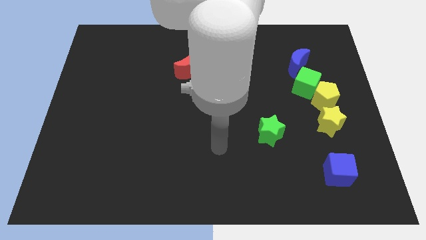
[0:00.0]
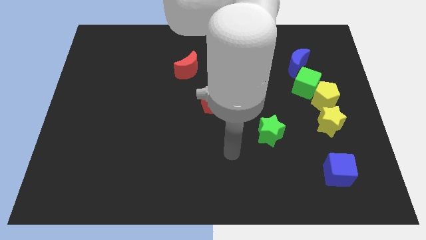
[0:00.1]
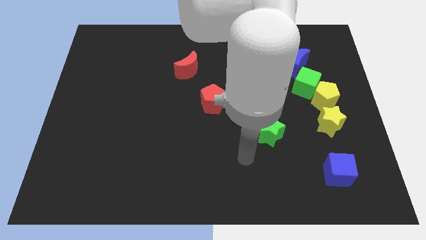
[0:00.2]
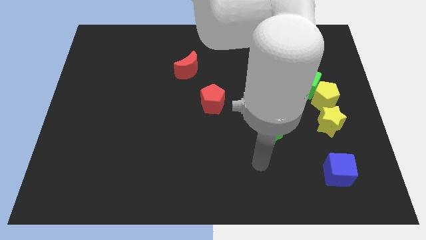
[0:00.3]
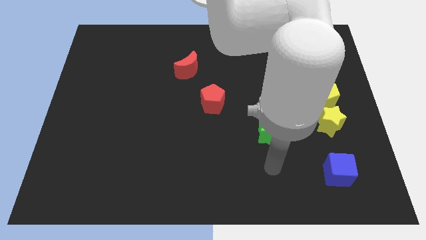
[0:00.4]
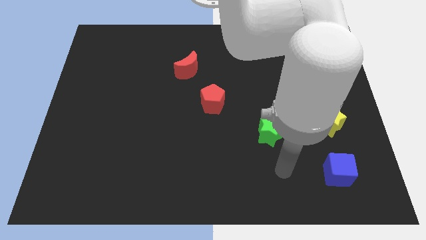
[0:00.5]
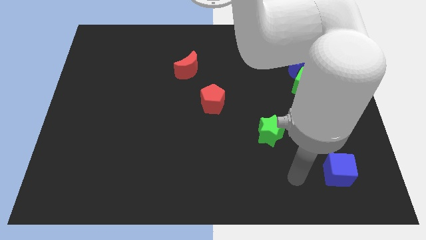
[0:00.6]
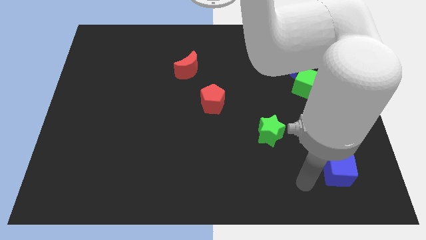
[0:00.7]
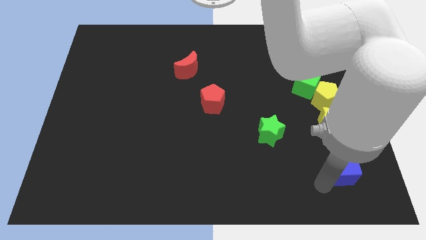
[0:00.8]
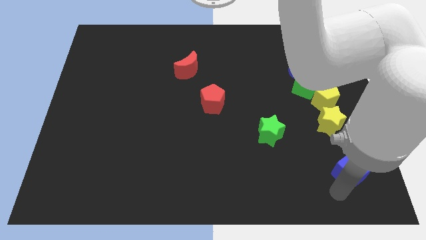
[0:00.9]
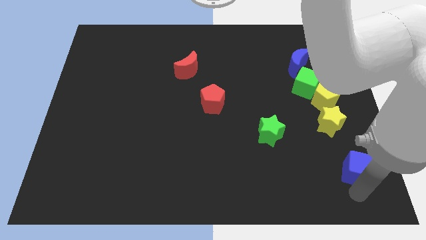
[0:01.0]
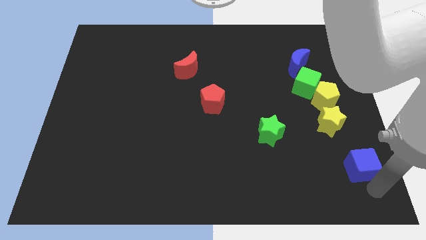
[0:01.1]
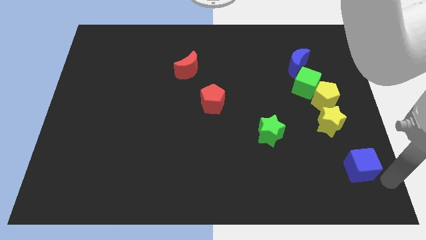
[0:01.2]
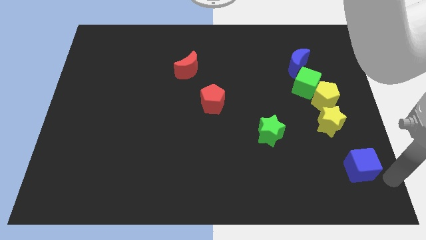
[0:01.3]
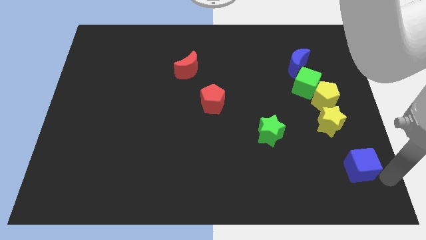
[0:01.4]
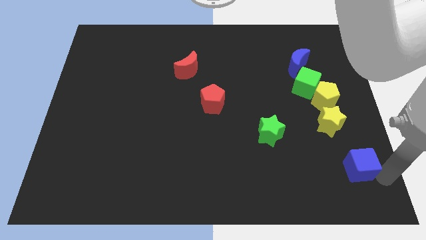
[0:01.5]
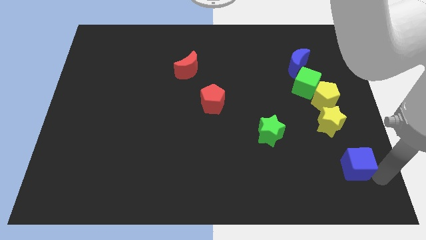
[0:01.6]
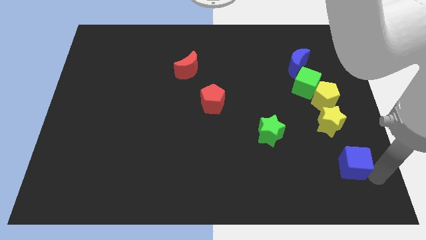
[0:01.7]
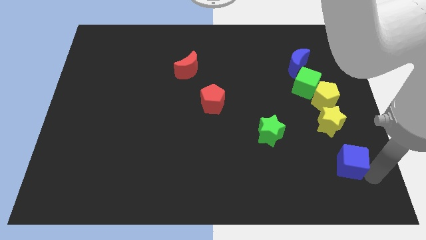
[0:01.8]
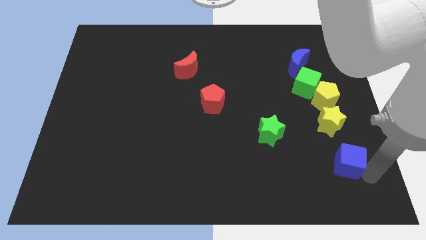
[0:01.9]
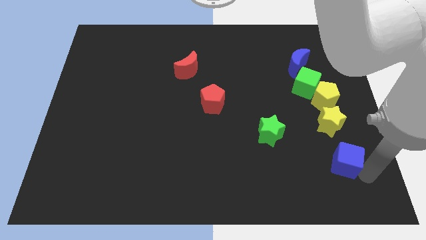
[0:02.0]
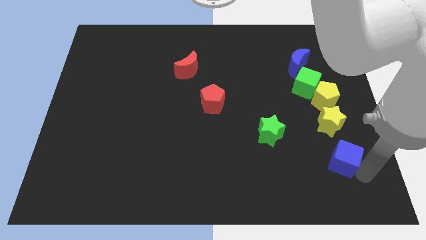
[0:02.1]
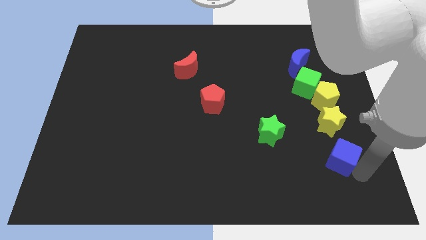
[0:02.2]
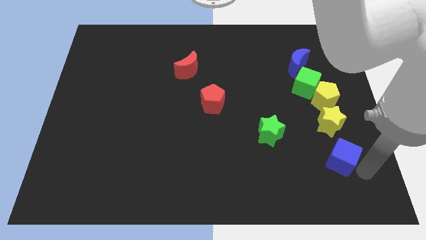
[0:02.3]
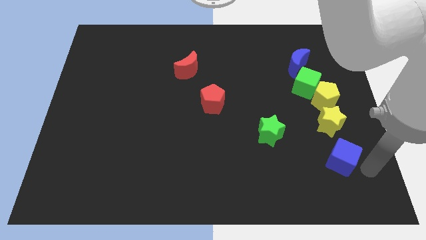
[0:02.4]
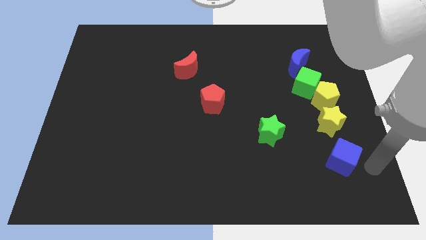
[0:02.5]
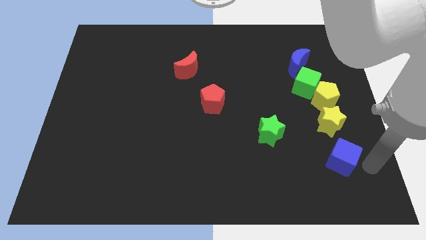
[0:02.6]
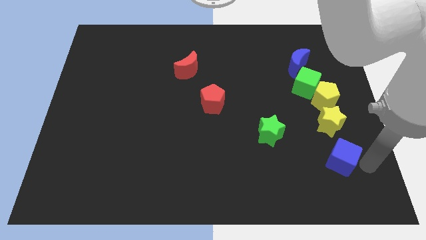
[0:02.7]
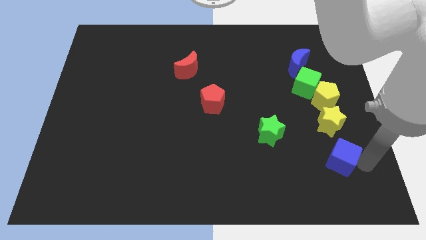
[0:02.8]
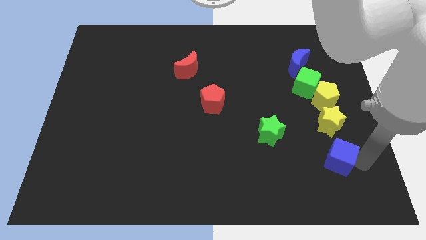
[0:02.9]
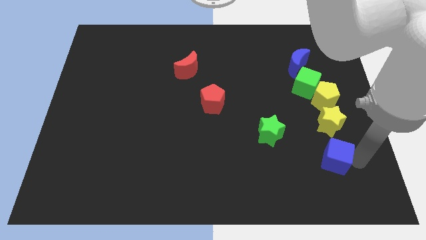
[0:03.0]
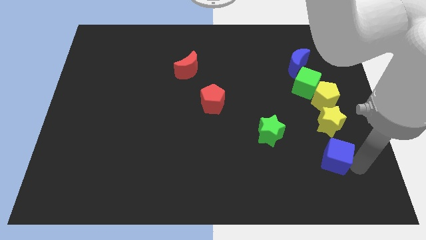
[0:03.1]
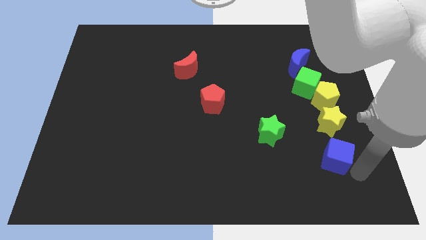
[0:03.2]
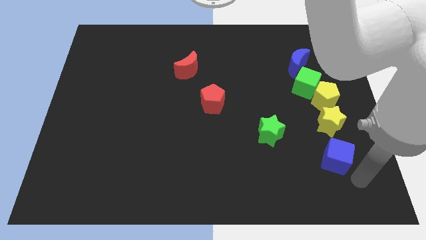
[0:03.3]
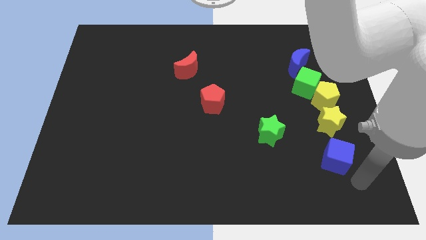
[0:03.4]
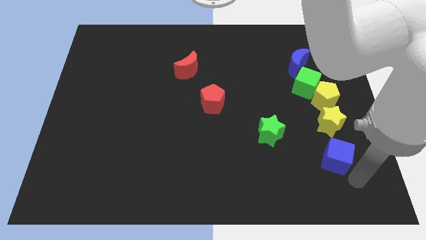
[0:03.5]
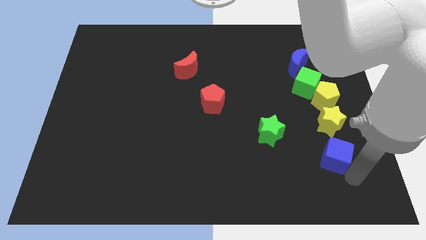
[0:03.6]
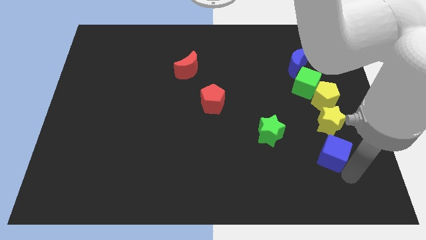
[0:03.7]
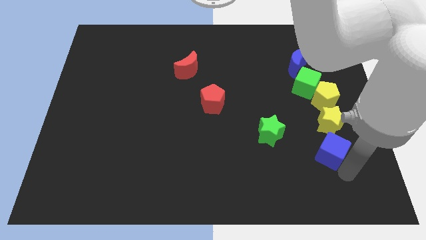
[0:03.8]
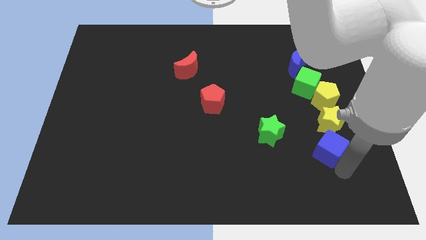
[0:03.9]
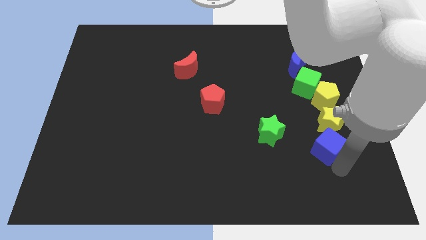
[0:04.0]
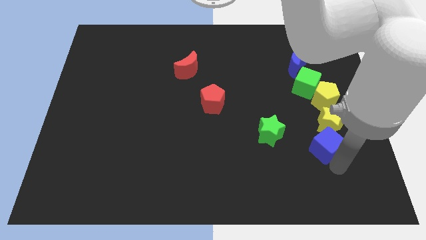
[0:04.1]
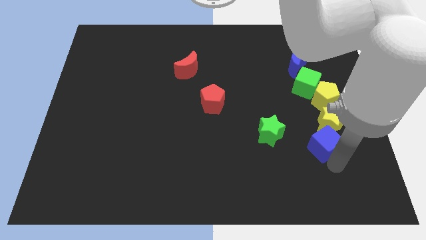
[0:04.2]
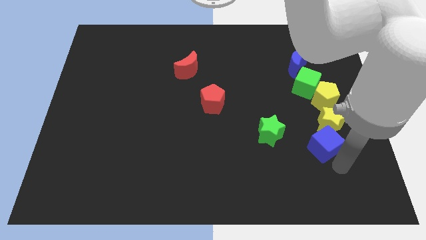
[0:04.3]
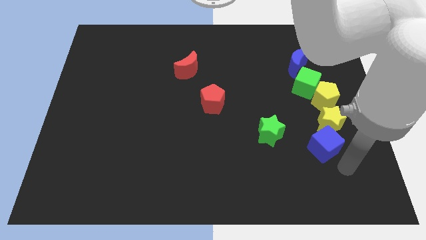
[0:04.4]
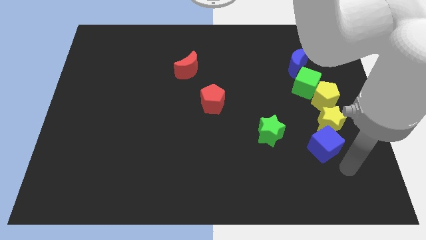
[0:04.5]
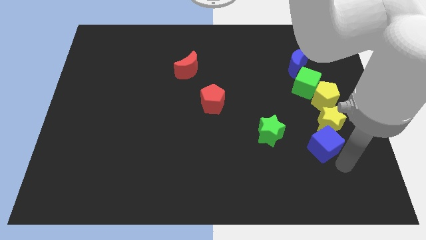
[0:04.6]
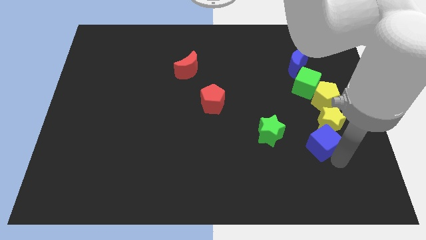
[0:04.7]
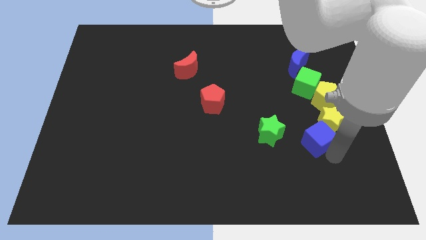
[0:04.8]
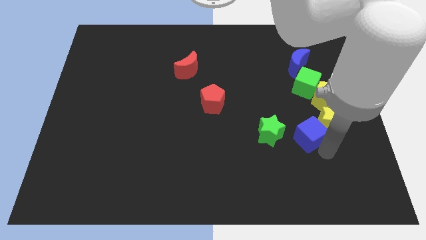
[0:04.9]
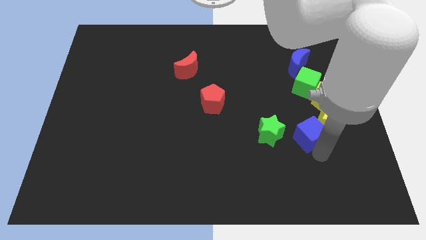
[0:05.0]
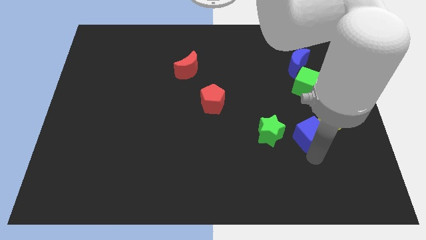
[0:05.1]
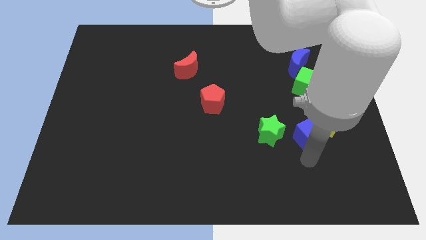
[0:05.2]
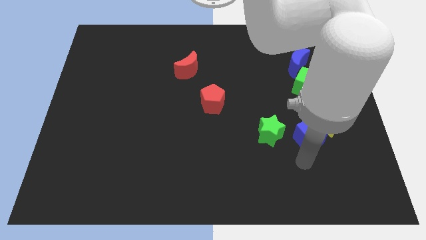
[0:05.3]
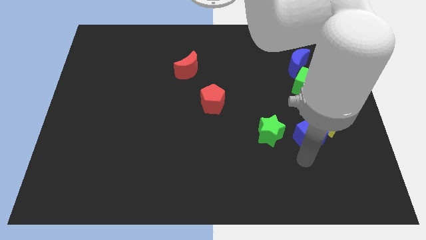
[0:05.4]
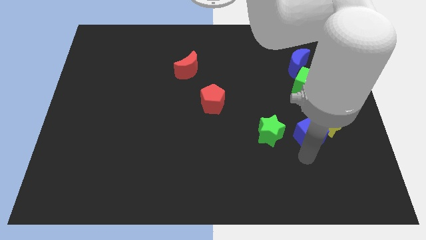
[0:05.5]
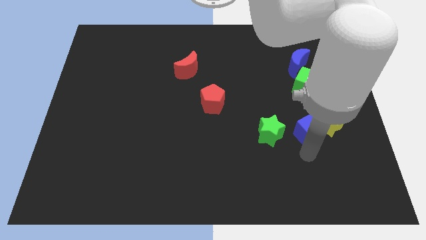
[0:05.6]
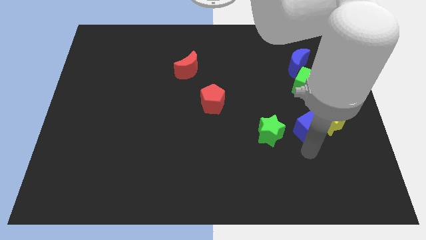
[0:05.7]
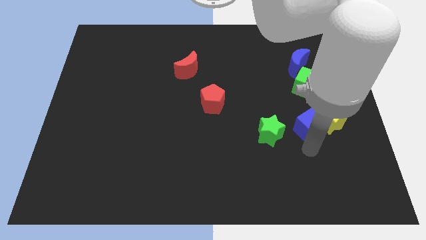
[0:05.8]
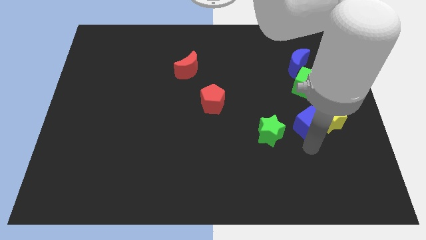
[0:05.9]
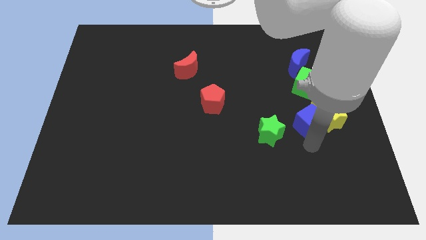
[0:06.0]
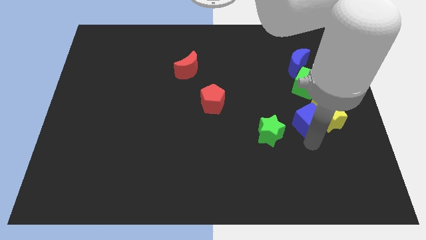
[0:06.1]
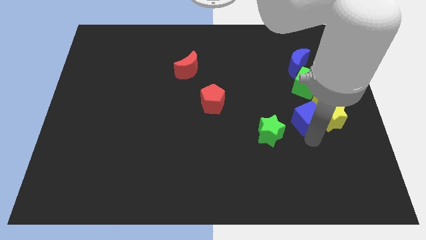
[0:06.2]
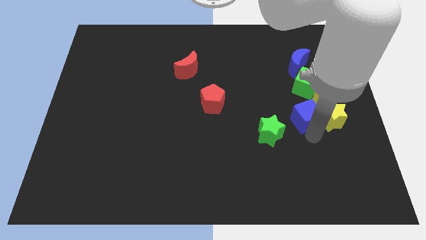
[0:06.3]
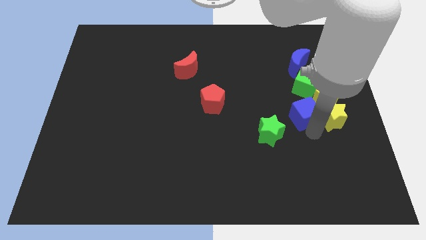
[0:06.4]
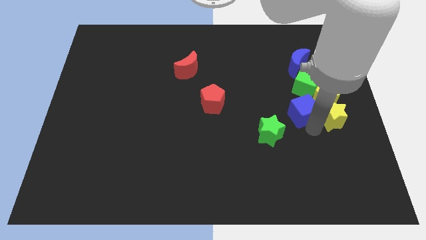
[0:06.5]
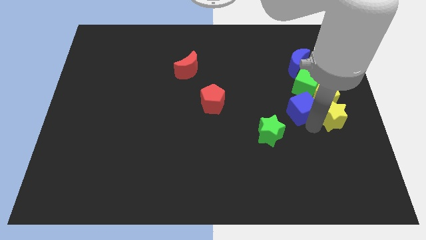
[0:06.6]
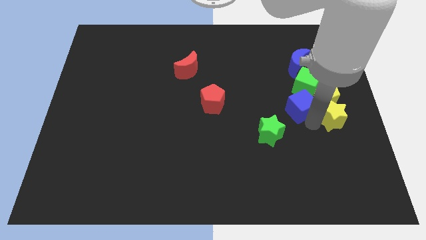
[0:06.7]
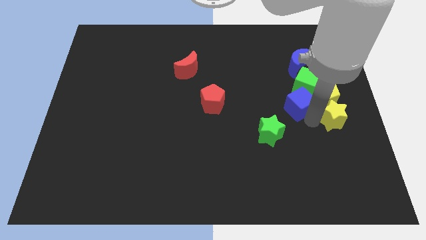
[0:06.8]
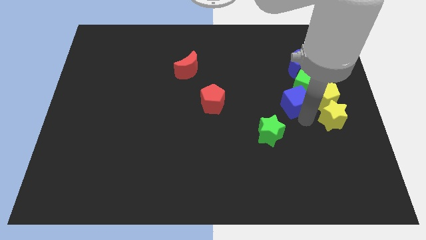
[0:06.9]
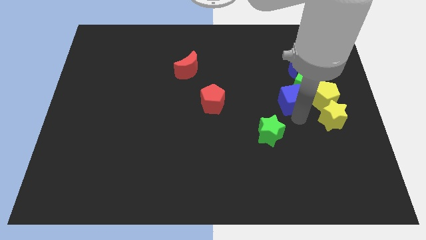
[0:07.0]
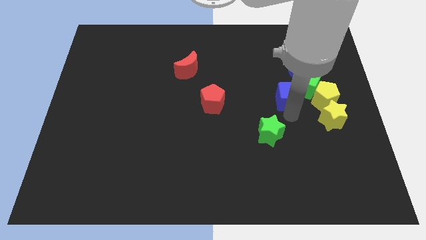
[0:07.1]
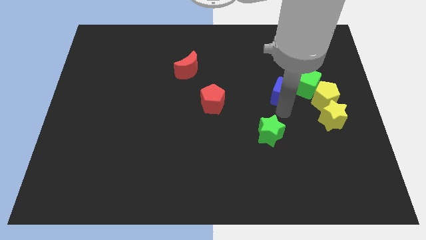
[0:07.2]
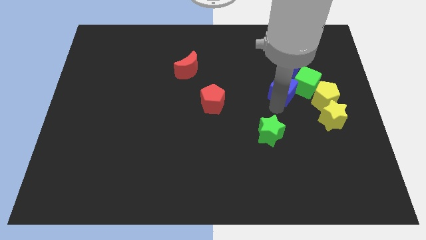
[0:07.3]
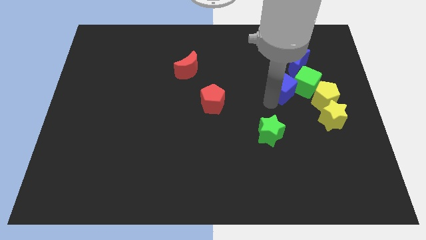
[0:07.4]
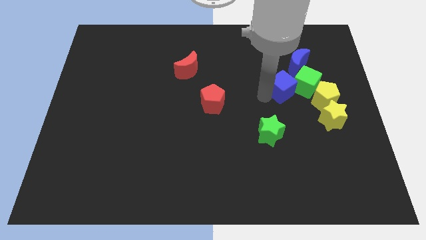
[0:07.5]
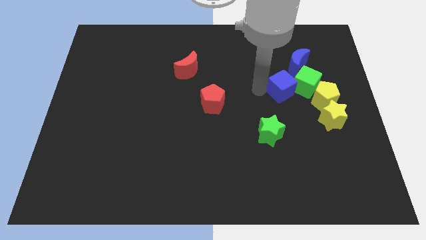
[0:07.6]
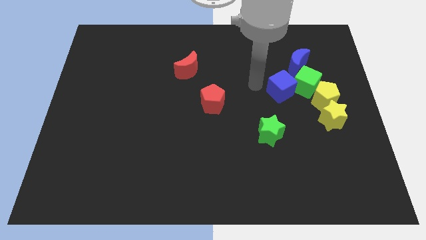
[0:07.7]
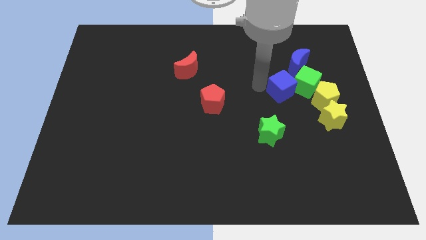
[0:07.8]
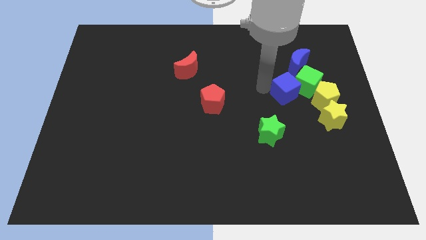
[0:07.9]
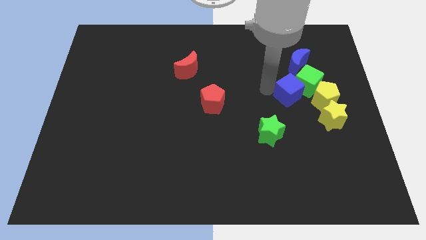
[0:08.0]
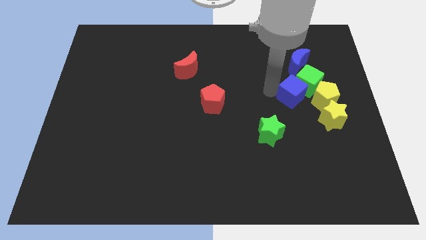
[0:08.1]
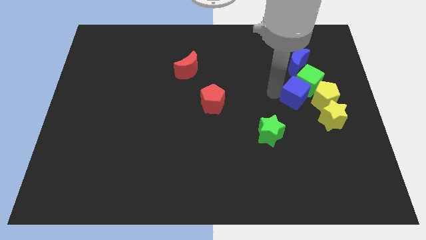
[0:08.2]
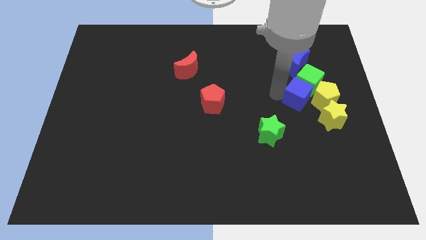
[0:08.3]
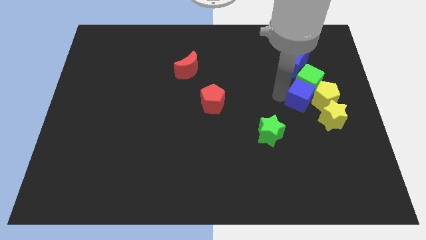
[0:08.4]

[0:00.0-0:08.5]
put the blue cube to the yellow pentagon
